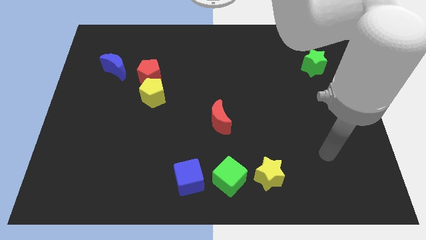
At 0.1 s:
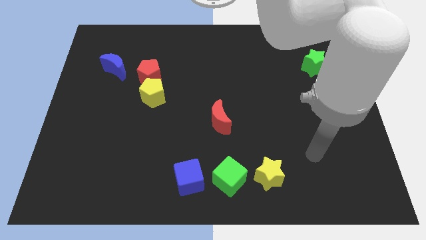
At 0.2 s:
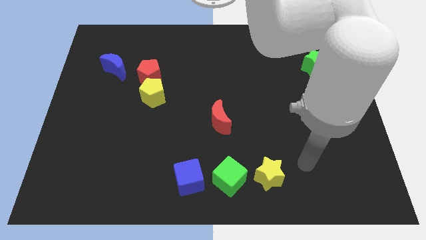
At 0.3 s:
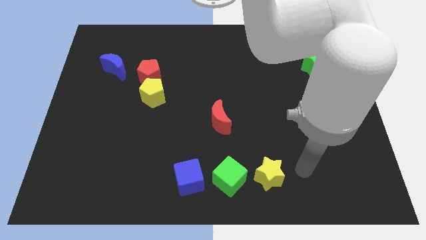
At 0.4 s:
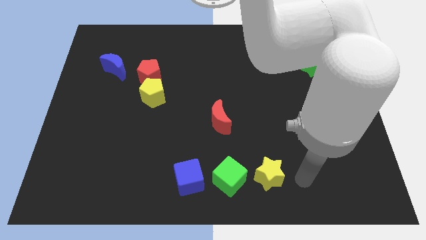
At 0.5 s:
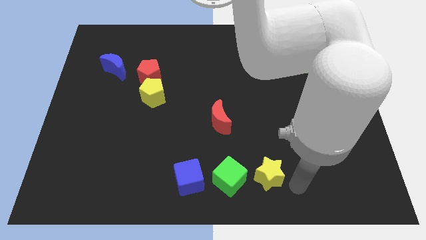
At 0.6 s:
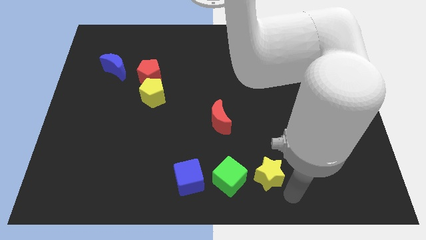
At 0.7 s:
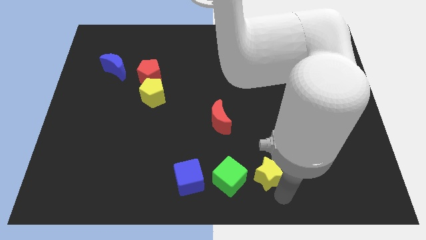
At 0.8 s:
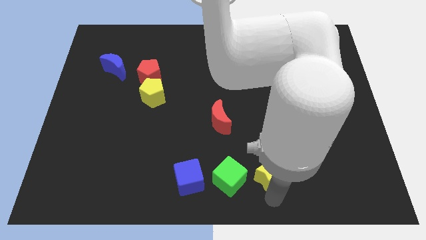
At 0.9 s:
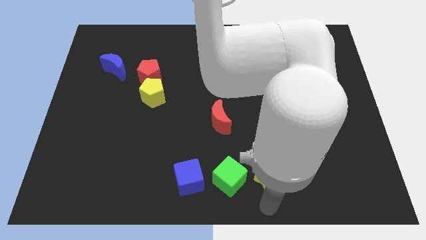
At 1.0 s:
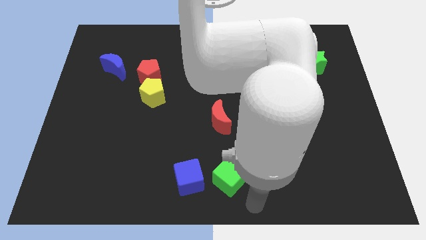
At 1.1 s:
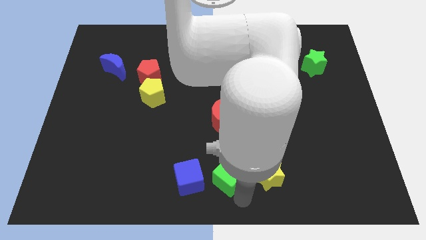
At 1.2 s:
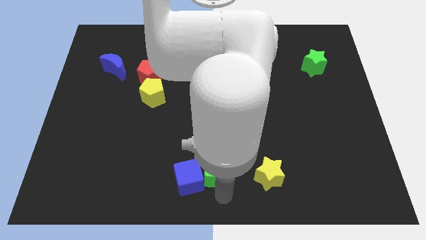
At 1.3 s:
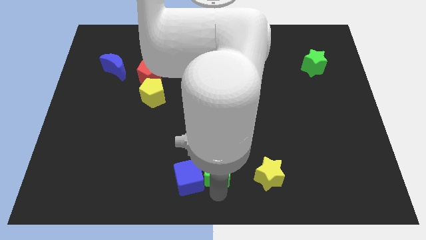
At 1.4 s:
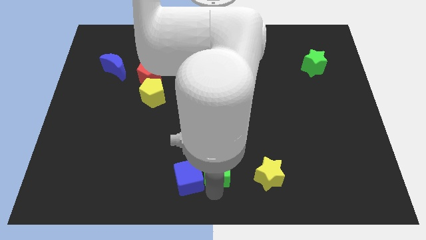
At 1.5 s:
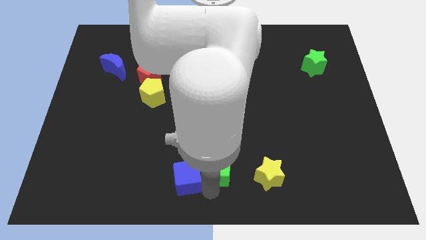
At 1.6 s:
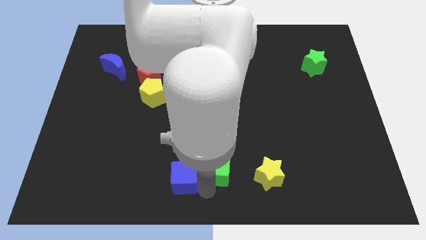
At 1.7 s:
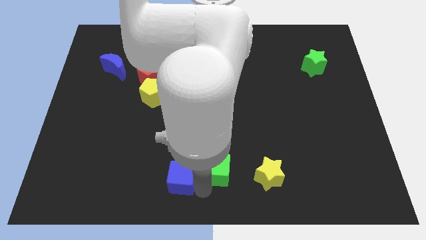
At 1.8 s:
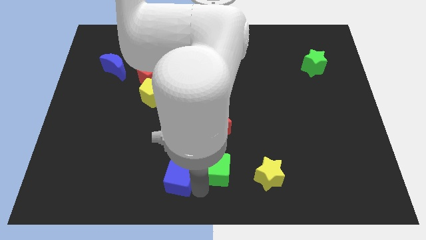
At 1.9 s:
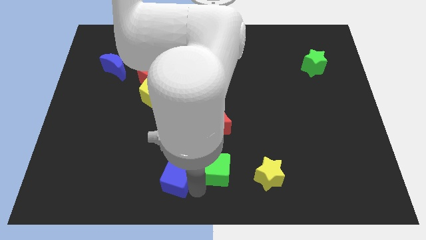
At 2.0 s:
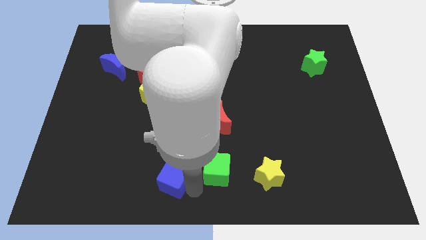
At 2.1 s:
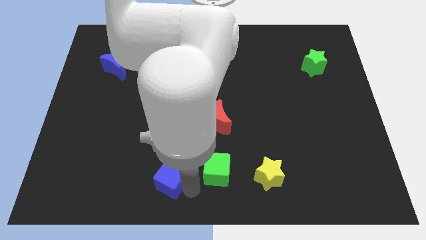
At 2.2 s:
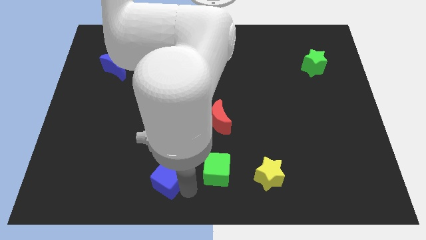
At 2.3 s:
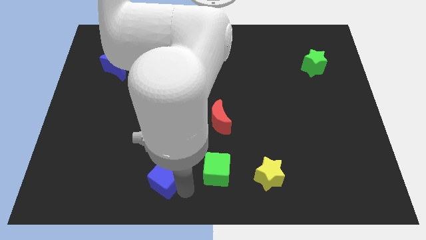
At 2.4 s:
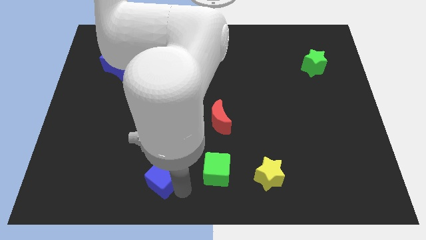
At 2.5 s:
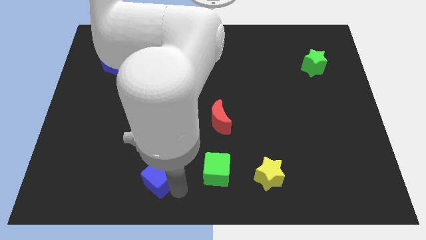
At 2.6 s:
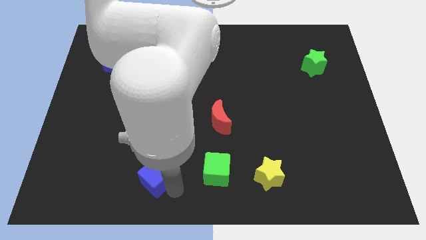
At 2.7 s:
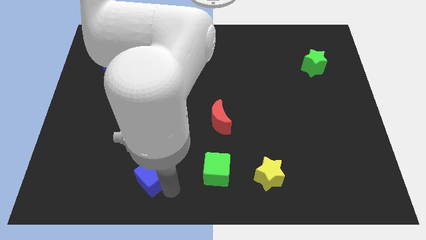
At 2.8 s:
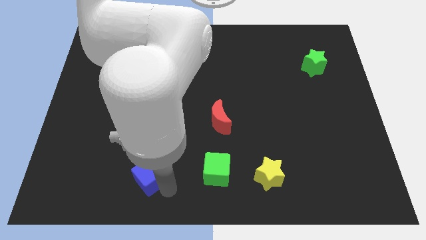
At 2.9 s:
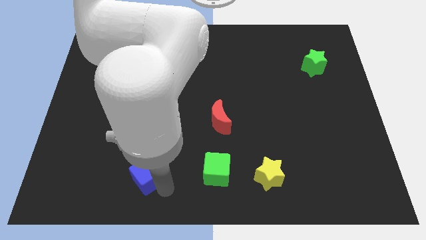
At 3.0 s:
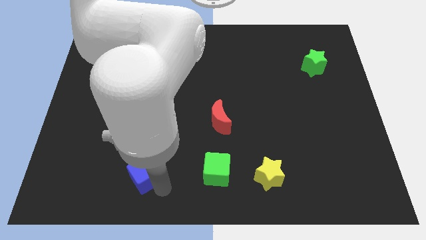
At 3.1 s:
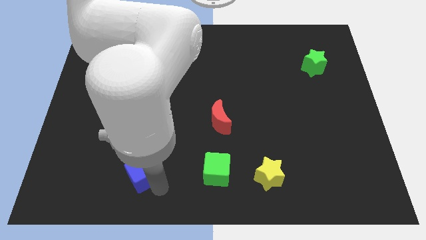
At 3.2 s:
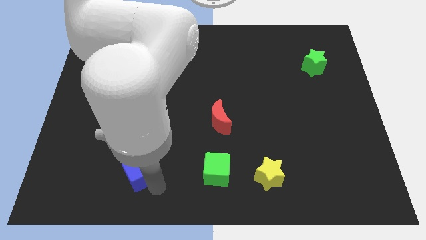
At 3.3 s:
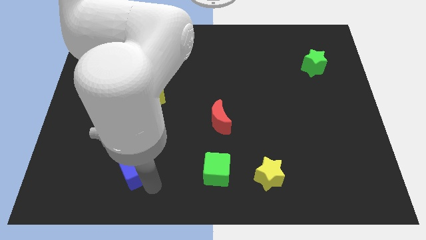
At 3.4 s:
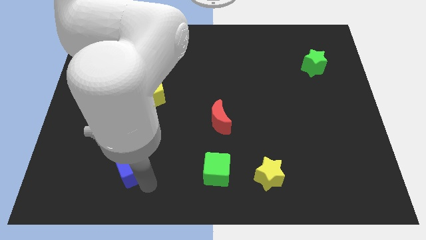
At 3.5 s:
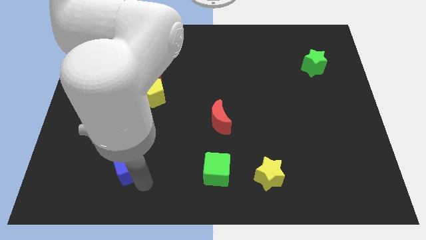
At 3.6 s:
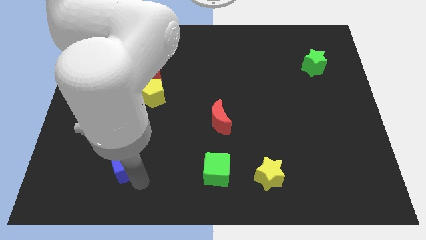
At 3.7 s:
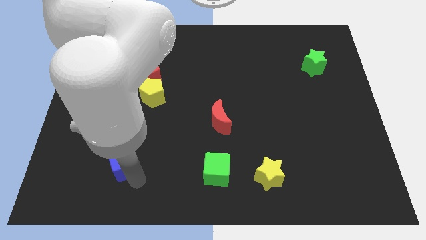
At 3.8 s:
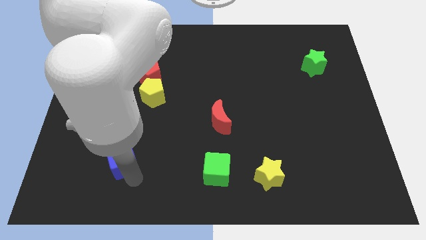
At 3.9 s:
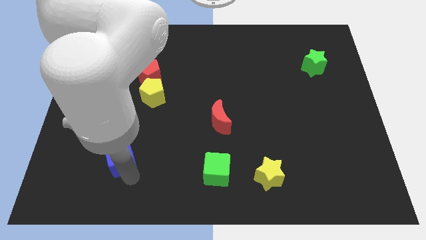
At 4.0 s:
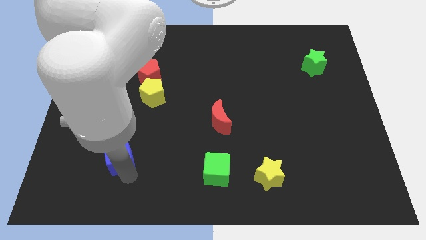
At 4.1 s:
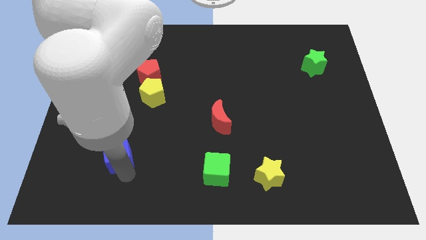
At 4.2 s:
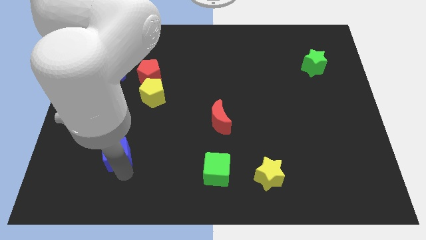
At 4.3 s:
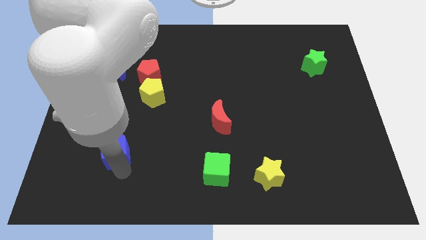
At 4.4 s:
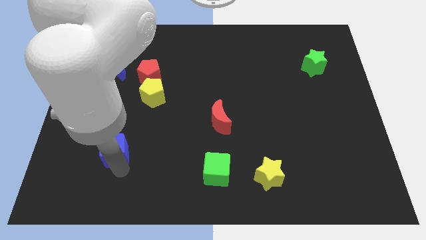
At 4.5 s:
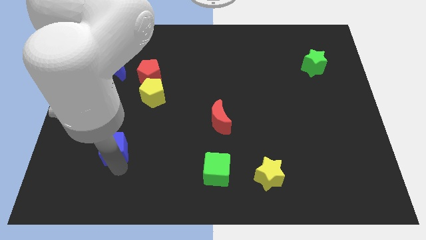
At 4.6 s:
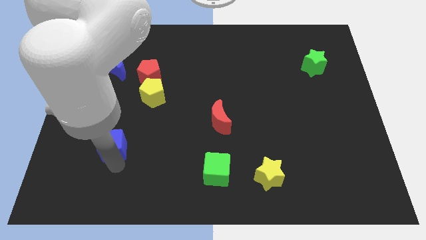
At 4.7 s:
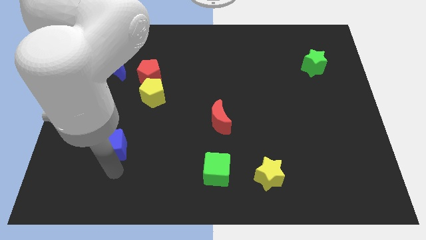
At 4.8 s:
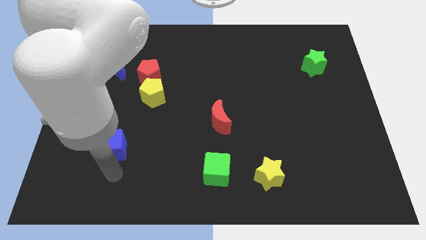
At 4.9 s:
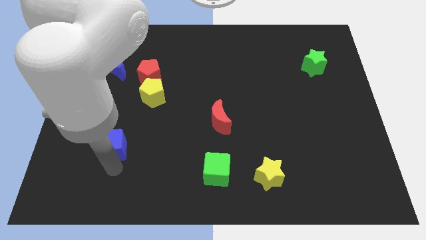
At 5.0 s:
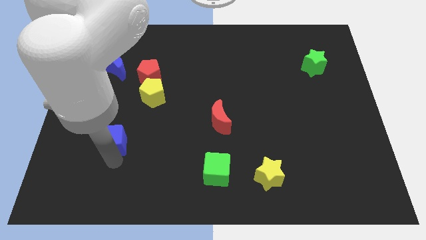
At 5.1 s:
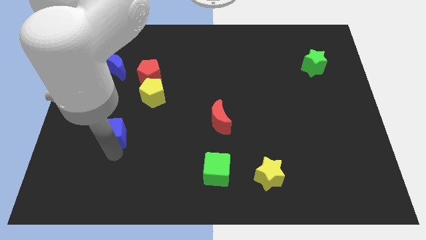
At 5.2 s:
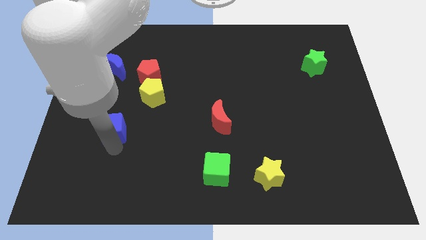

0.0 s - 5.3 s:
slide the blue cube up and to the left diagonally

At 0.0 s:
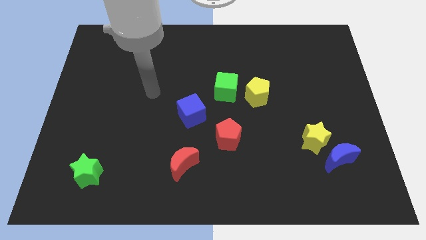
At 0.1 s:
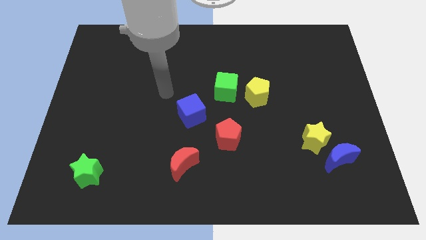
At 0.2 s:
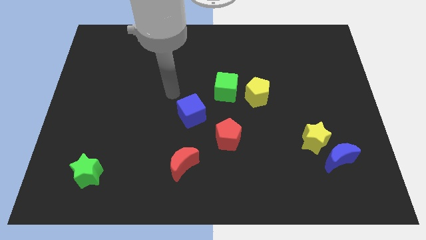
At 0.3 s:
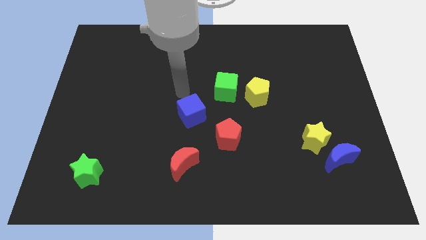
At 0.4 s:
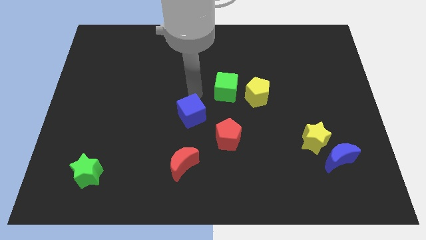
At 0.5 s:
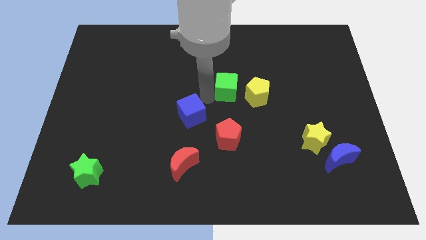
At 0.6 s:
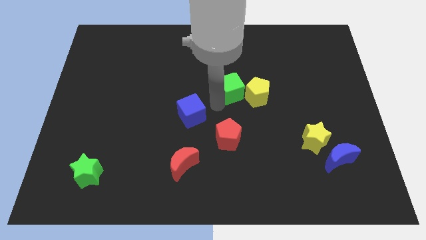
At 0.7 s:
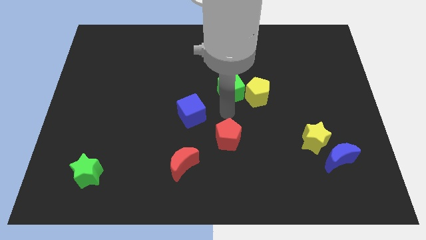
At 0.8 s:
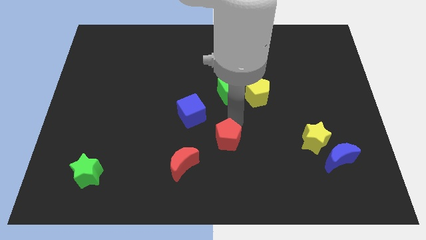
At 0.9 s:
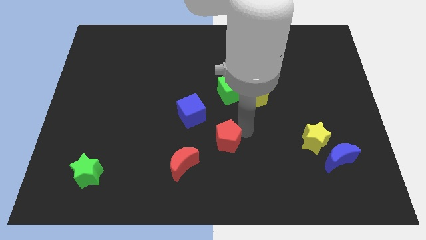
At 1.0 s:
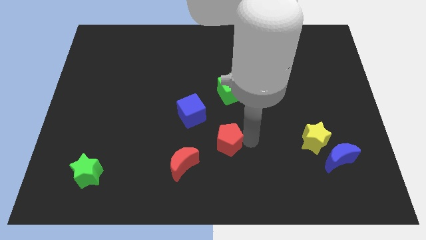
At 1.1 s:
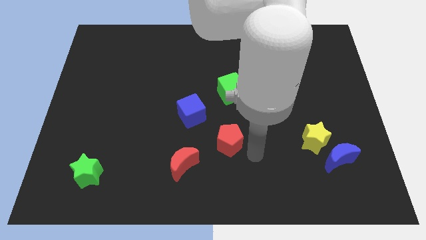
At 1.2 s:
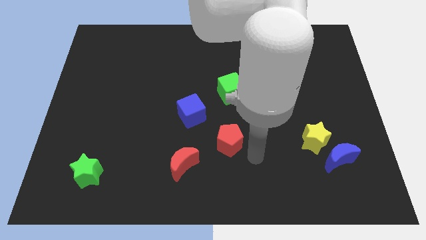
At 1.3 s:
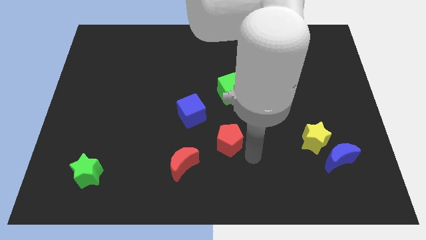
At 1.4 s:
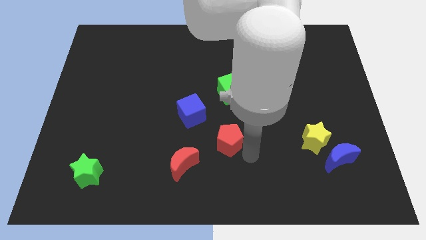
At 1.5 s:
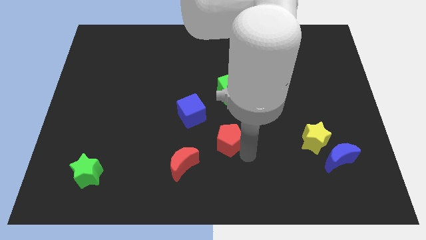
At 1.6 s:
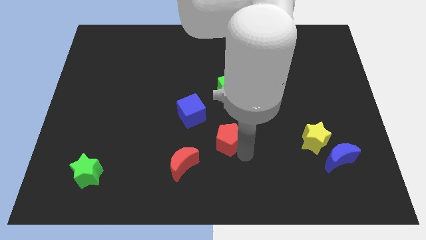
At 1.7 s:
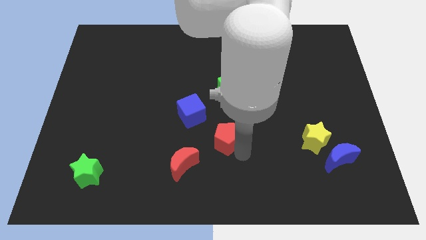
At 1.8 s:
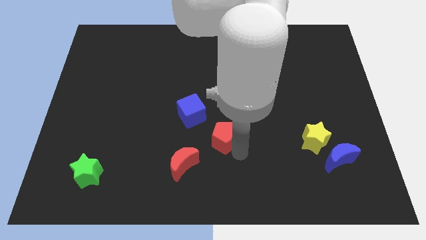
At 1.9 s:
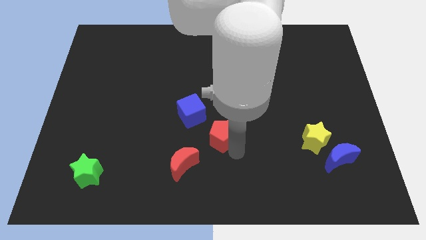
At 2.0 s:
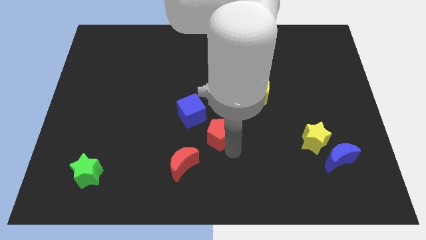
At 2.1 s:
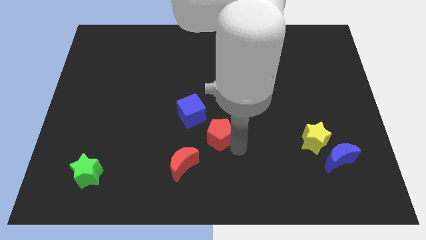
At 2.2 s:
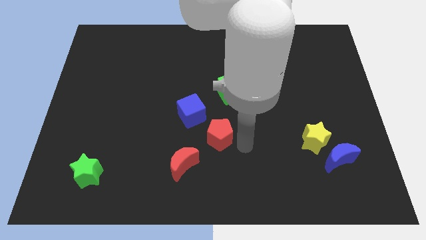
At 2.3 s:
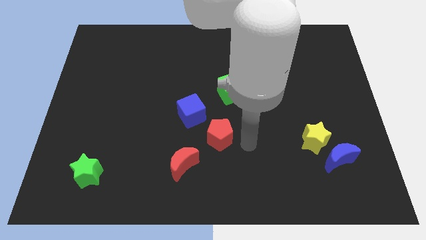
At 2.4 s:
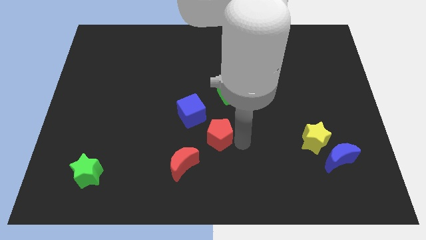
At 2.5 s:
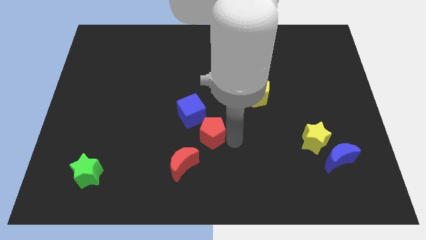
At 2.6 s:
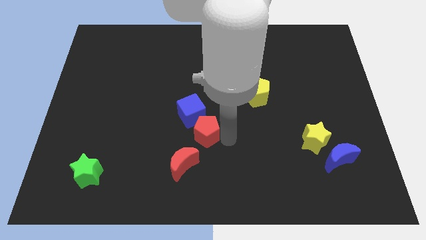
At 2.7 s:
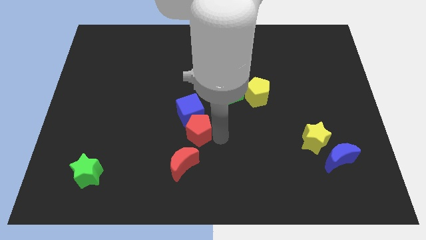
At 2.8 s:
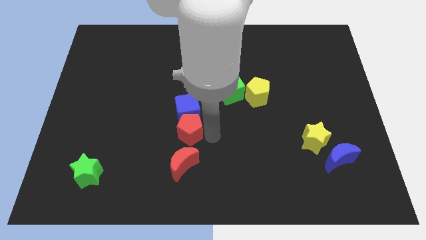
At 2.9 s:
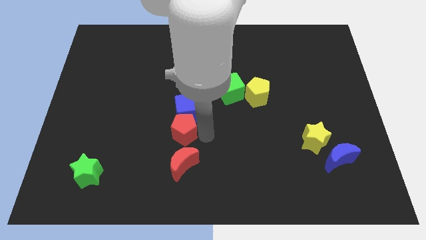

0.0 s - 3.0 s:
move the red pentagon a little bit upwards and then to the left
